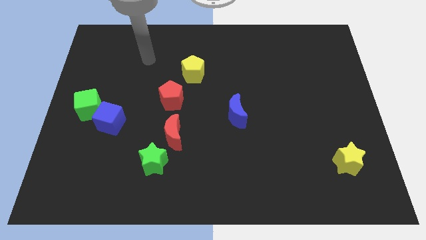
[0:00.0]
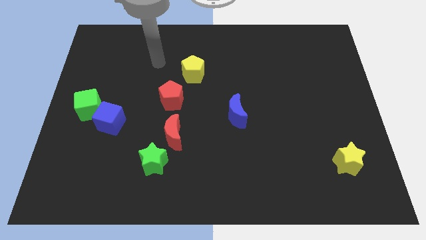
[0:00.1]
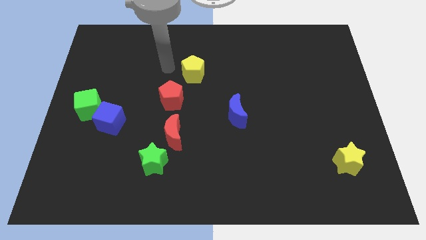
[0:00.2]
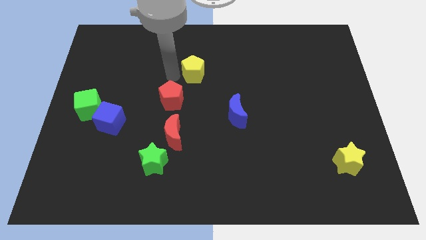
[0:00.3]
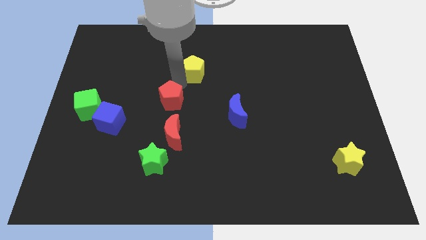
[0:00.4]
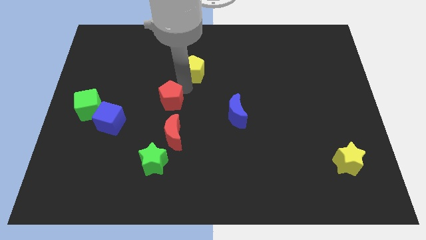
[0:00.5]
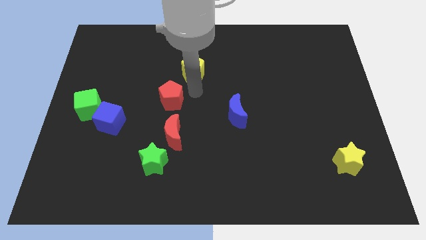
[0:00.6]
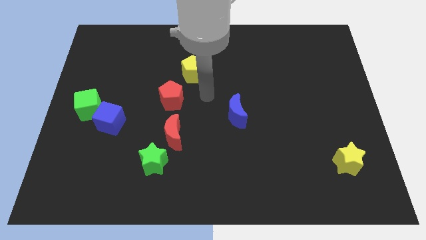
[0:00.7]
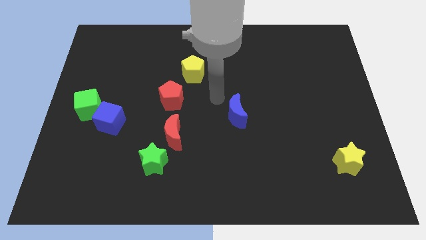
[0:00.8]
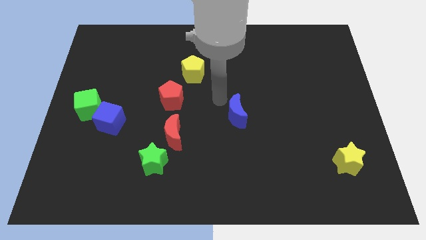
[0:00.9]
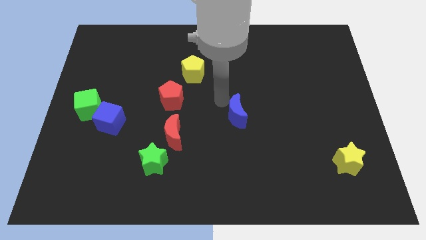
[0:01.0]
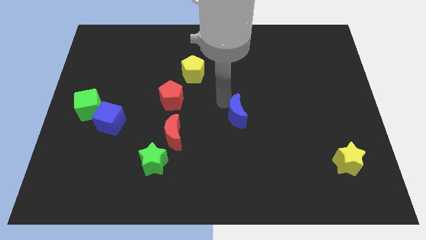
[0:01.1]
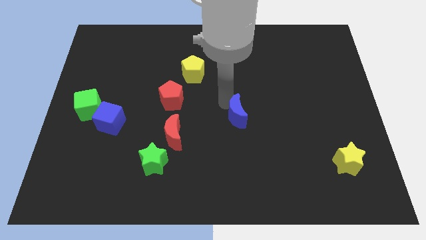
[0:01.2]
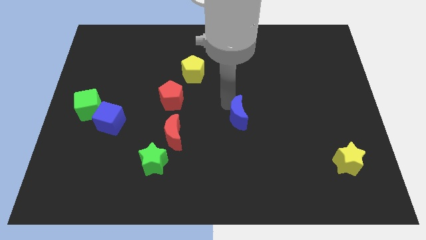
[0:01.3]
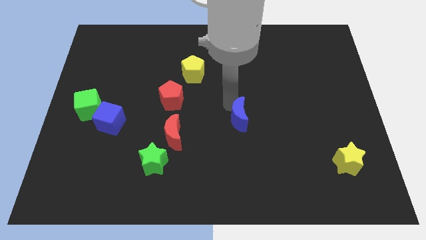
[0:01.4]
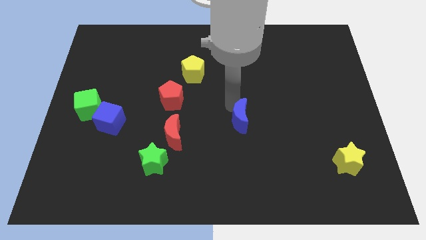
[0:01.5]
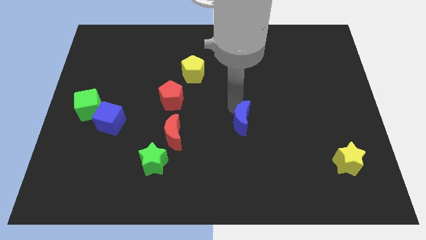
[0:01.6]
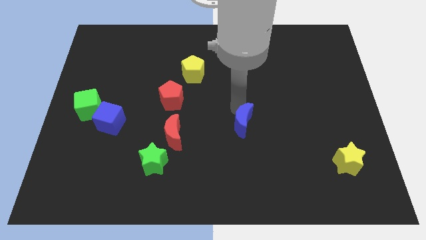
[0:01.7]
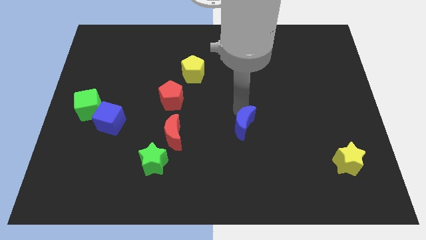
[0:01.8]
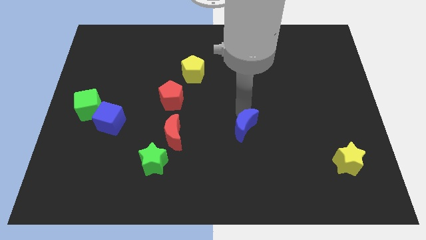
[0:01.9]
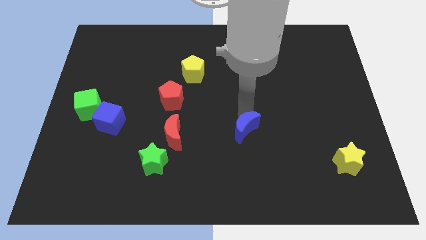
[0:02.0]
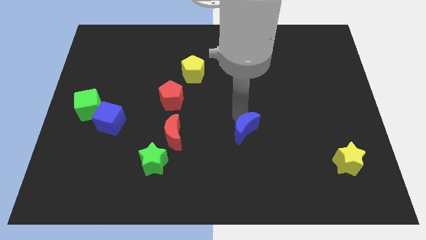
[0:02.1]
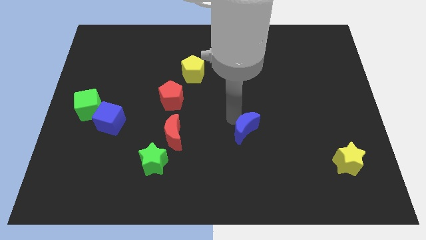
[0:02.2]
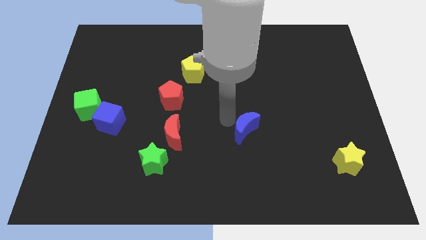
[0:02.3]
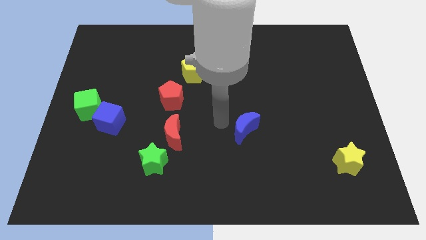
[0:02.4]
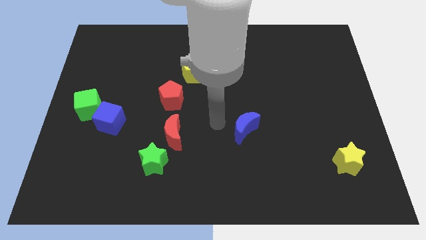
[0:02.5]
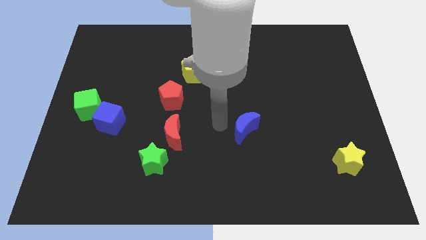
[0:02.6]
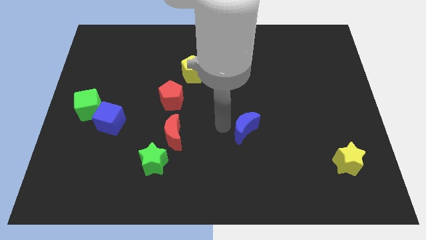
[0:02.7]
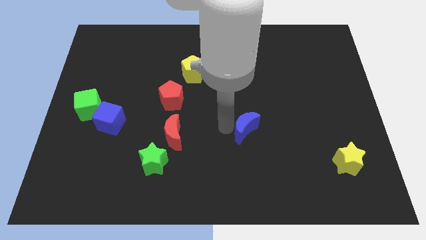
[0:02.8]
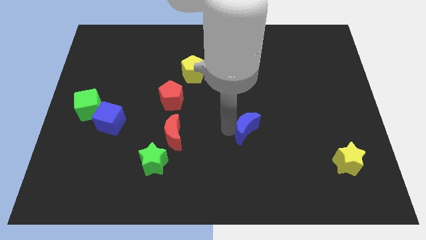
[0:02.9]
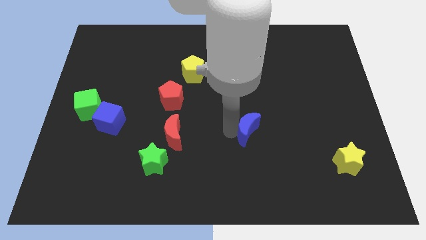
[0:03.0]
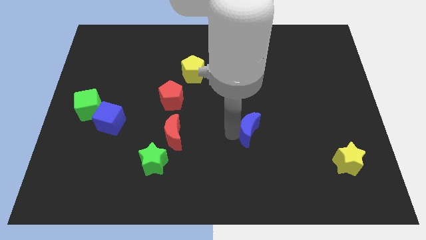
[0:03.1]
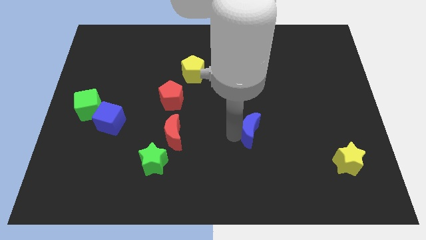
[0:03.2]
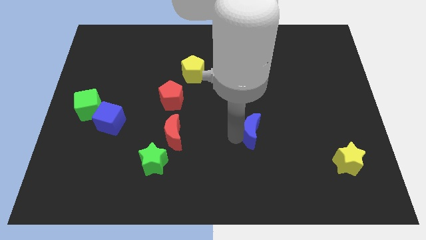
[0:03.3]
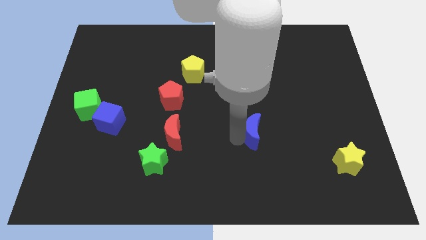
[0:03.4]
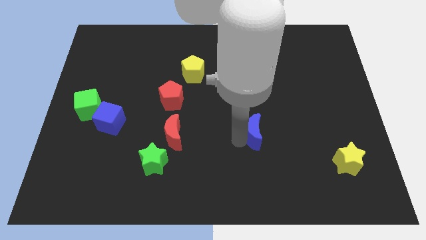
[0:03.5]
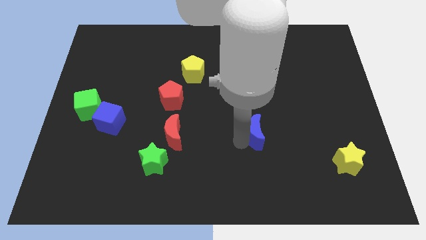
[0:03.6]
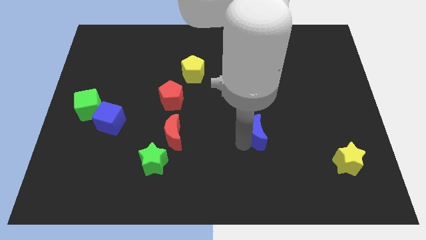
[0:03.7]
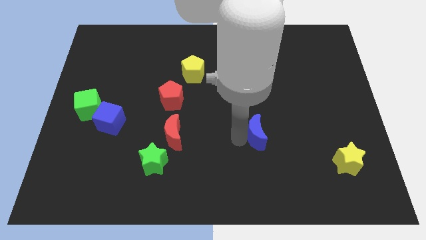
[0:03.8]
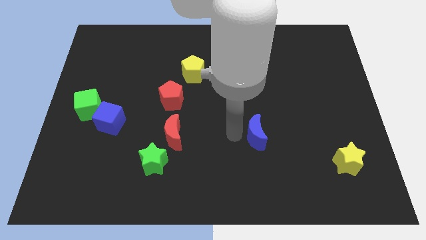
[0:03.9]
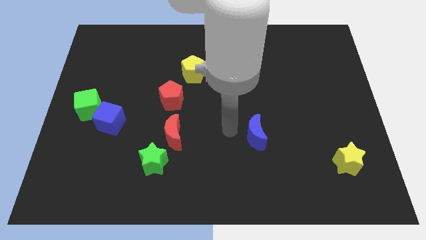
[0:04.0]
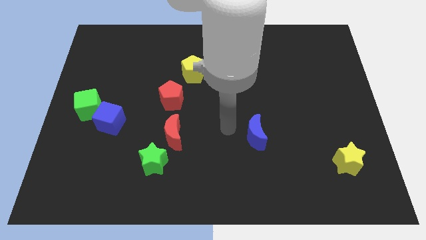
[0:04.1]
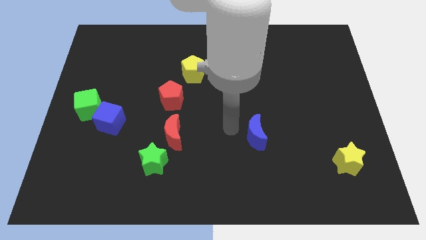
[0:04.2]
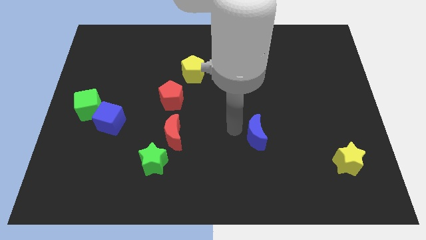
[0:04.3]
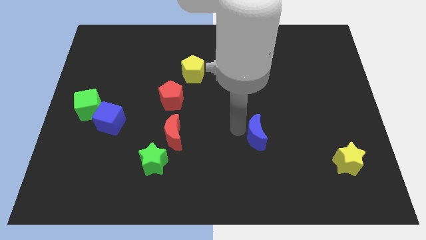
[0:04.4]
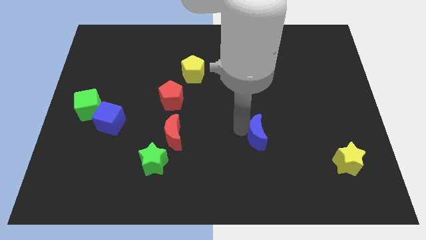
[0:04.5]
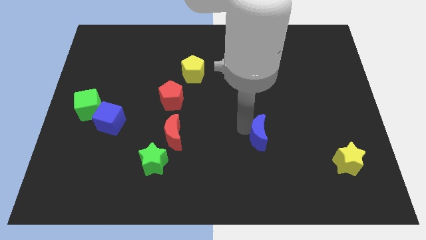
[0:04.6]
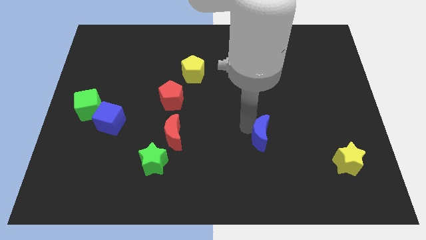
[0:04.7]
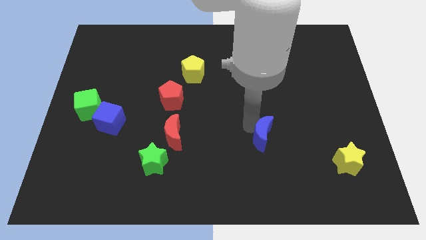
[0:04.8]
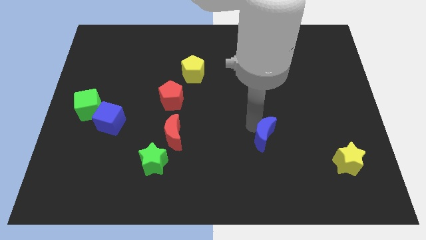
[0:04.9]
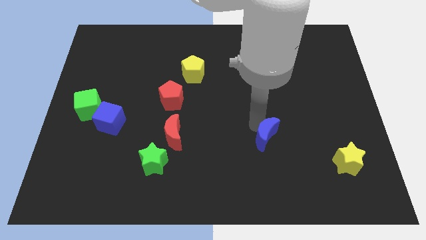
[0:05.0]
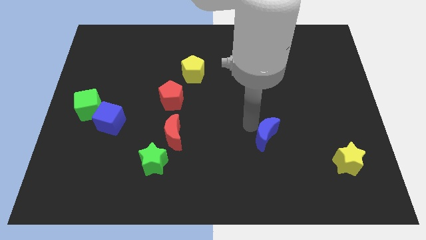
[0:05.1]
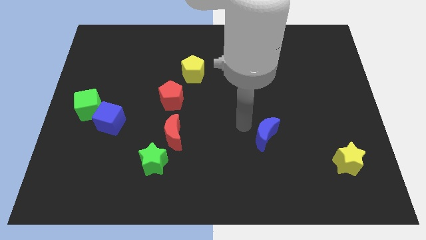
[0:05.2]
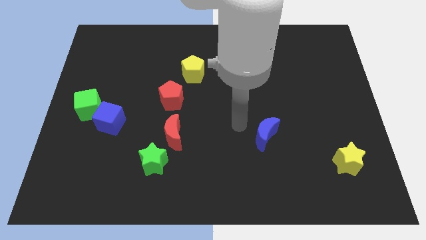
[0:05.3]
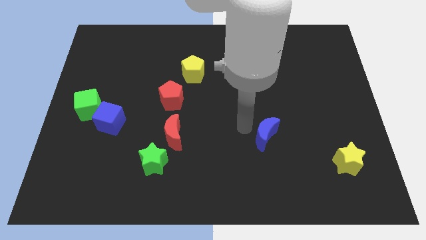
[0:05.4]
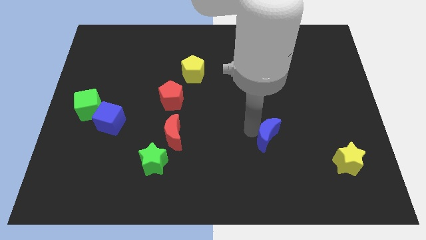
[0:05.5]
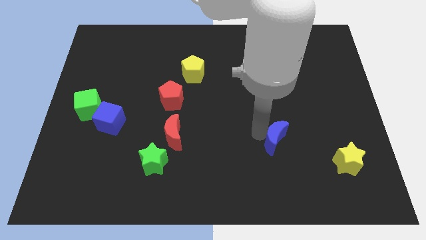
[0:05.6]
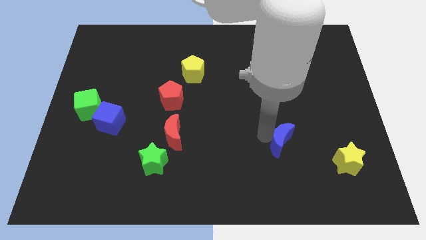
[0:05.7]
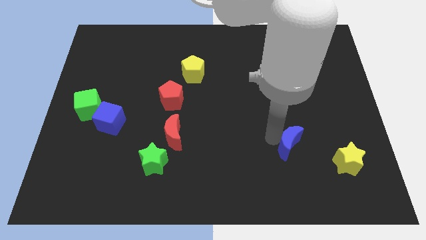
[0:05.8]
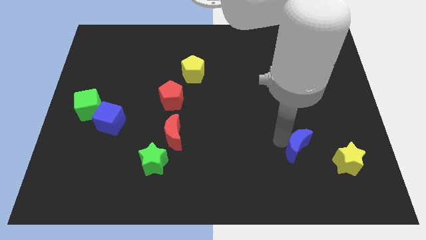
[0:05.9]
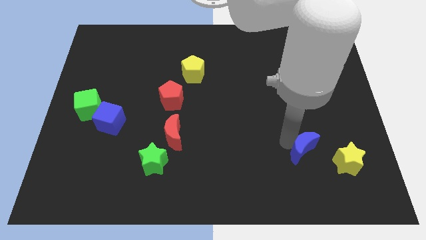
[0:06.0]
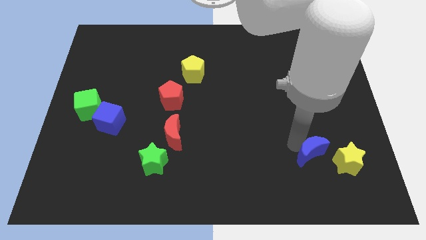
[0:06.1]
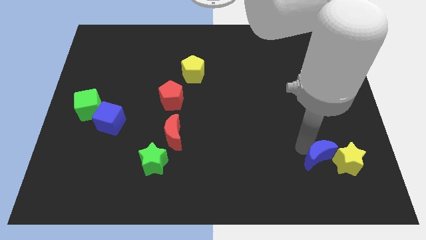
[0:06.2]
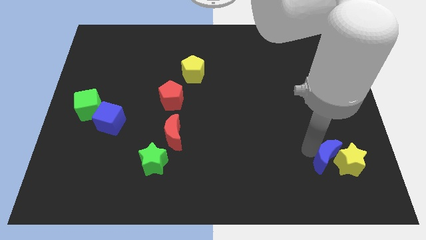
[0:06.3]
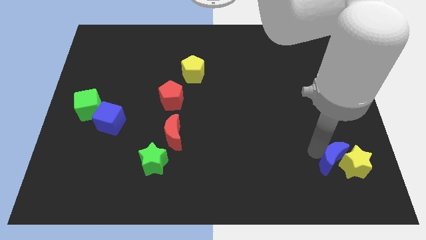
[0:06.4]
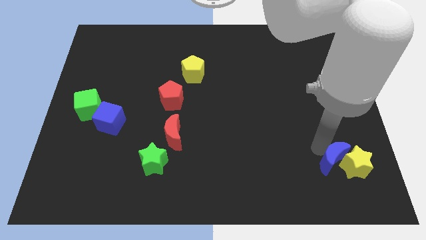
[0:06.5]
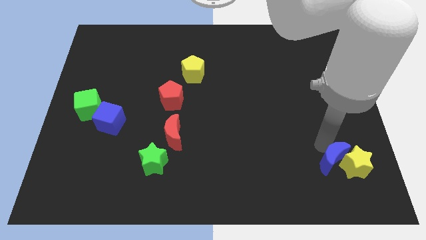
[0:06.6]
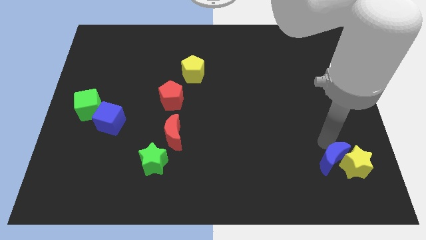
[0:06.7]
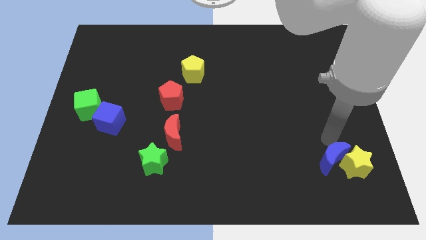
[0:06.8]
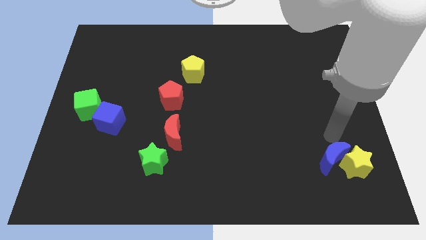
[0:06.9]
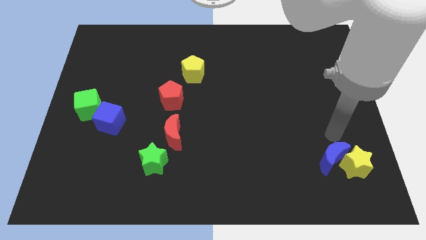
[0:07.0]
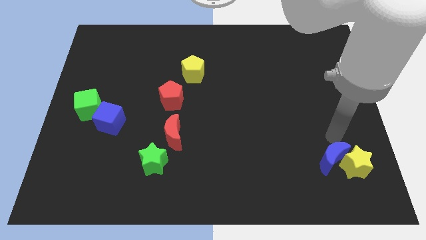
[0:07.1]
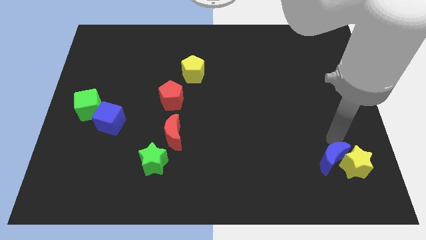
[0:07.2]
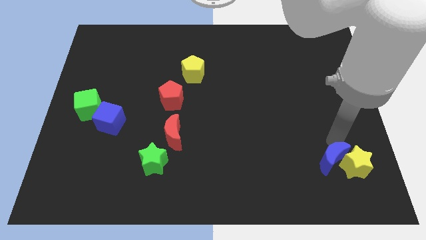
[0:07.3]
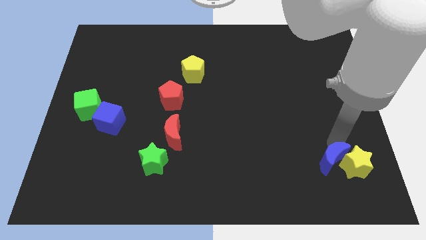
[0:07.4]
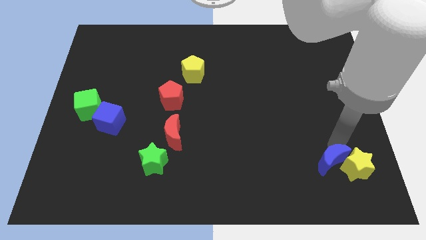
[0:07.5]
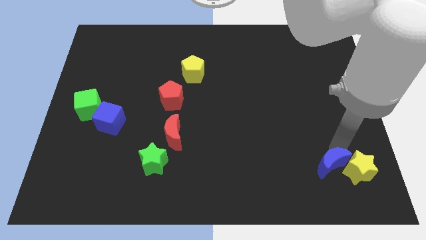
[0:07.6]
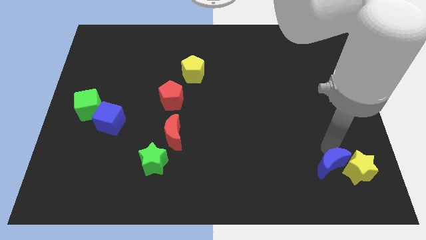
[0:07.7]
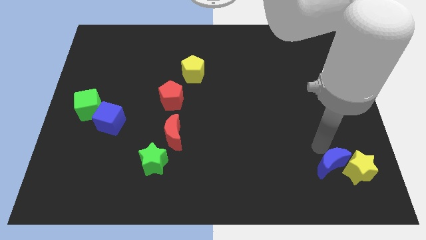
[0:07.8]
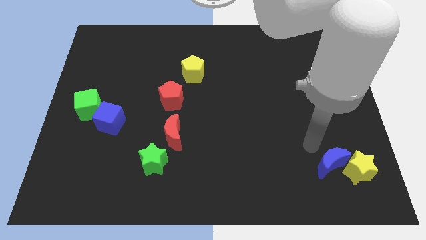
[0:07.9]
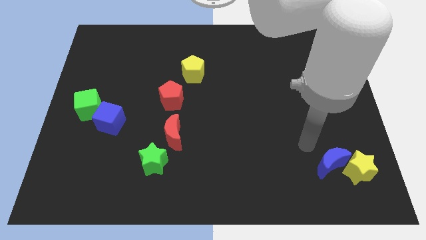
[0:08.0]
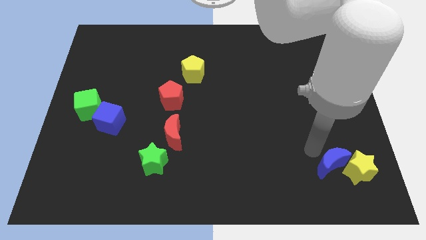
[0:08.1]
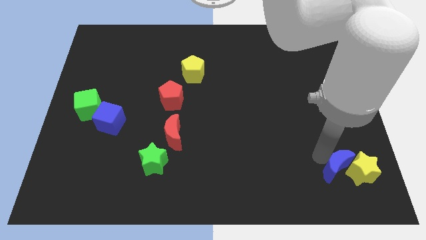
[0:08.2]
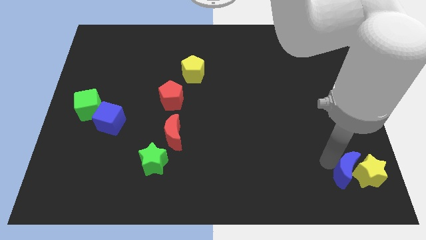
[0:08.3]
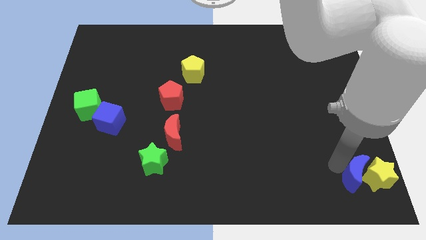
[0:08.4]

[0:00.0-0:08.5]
move the blue moon to the bottom right
